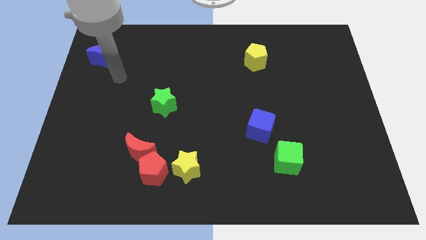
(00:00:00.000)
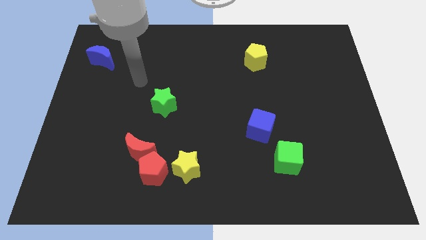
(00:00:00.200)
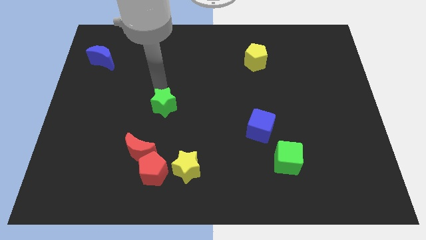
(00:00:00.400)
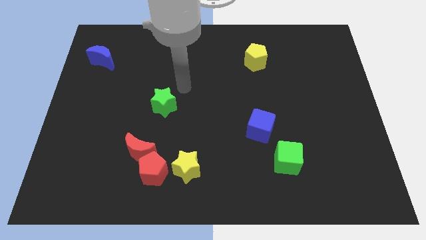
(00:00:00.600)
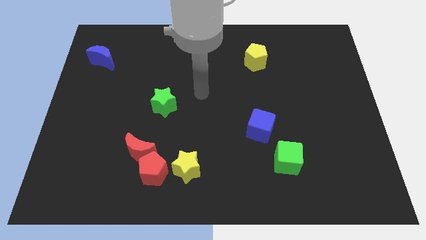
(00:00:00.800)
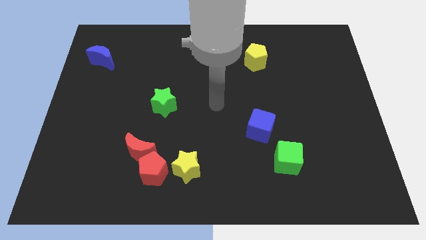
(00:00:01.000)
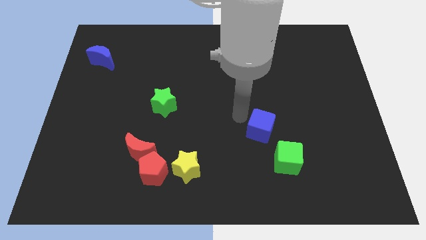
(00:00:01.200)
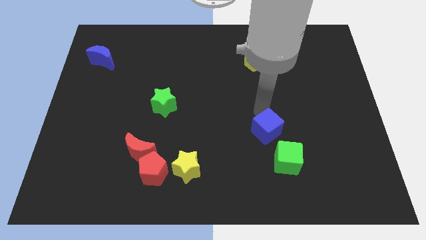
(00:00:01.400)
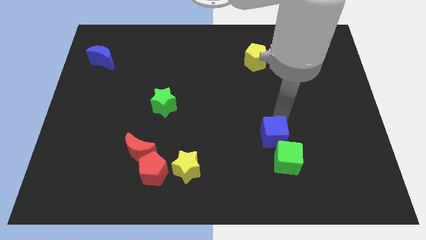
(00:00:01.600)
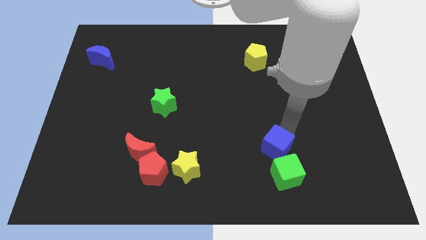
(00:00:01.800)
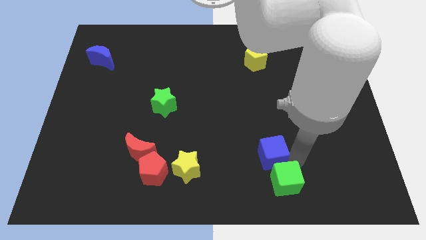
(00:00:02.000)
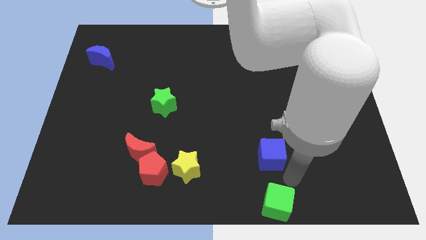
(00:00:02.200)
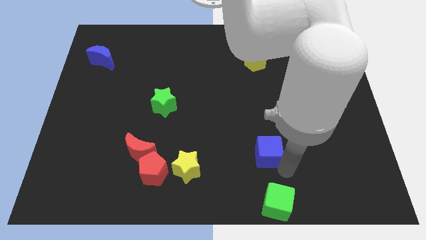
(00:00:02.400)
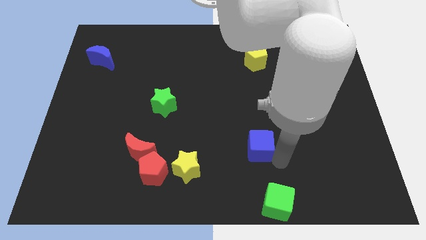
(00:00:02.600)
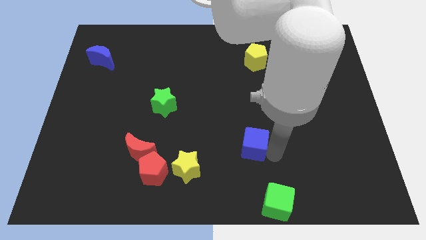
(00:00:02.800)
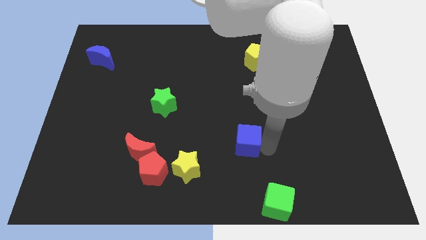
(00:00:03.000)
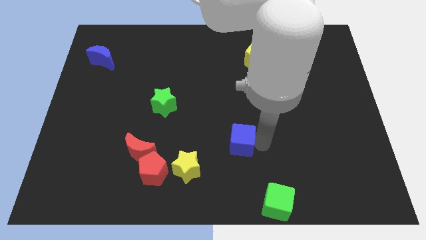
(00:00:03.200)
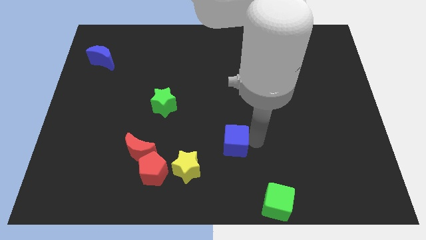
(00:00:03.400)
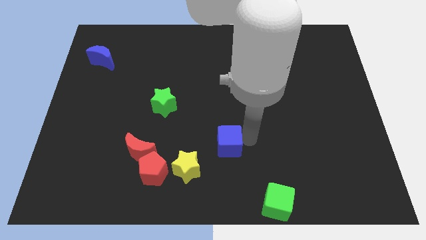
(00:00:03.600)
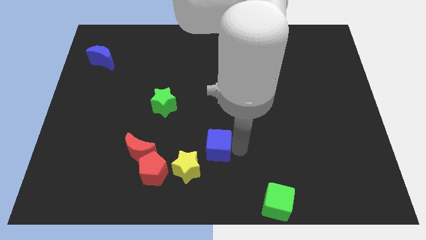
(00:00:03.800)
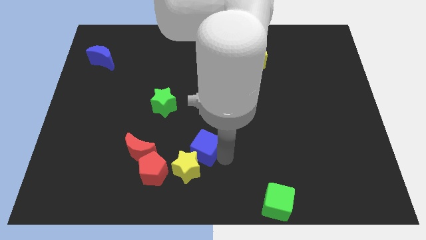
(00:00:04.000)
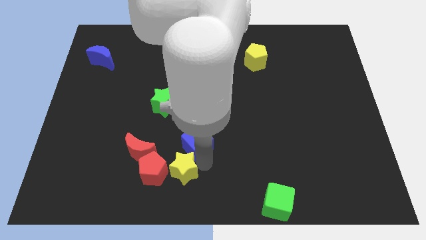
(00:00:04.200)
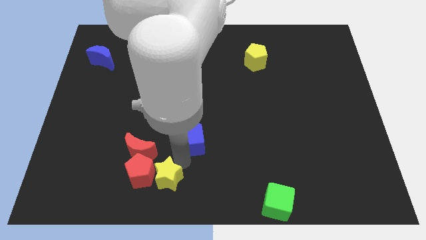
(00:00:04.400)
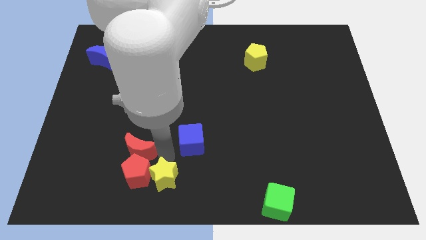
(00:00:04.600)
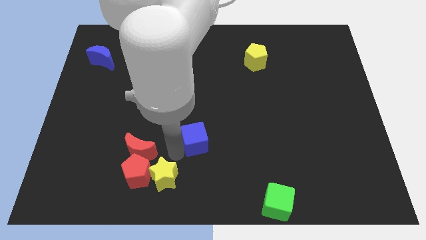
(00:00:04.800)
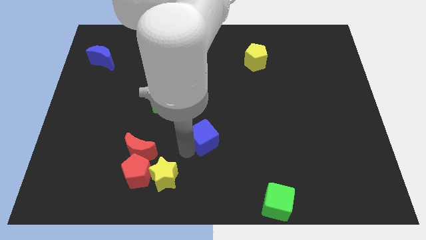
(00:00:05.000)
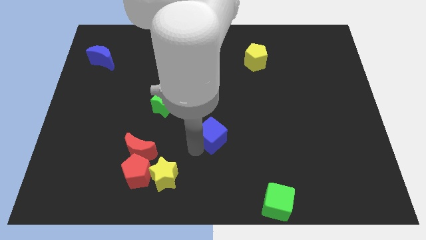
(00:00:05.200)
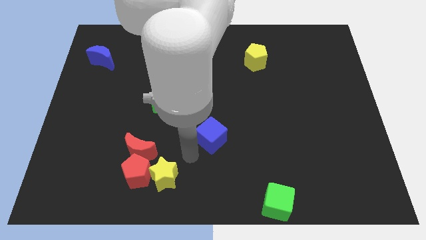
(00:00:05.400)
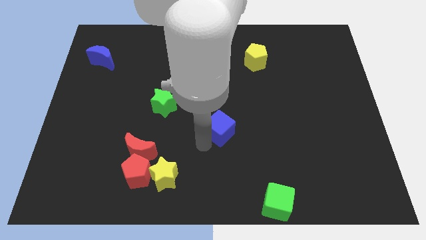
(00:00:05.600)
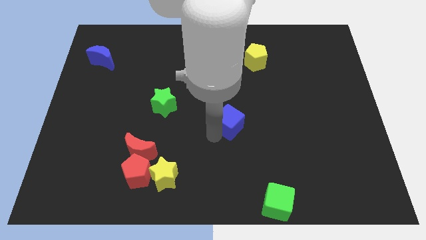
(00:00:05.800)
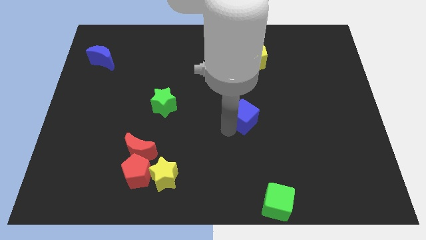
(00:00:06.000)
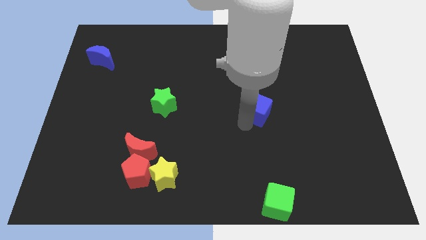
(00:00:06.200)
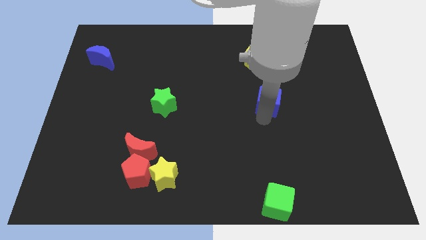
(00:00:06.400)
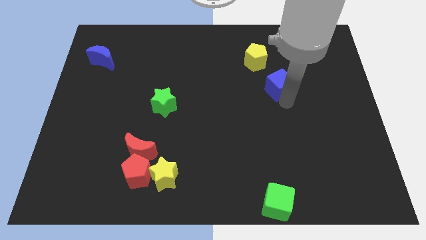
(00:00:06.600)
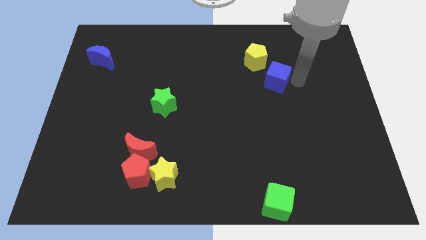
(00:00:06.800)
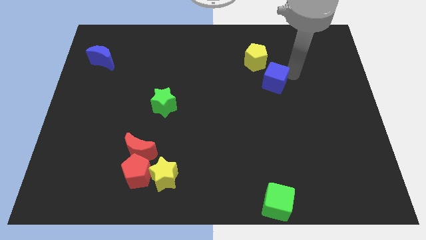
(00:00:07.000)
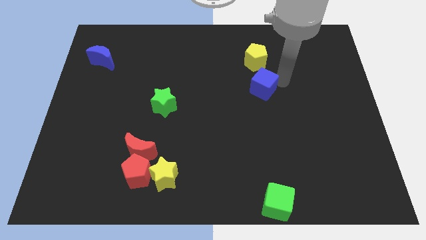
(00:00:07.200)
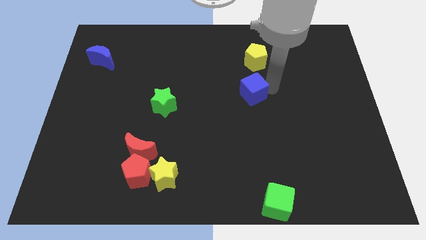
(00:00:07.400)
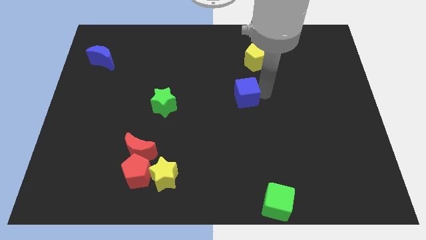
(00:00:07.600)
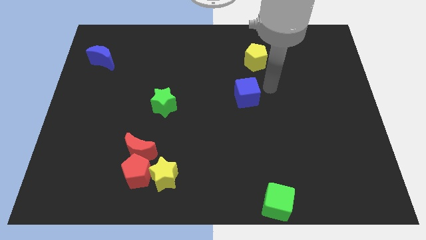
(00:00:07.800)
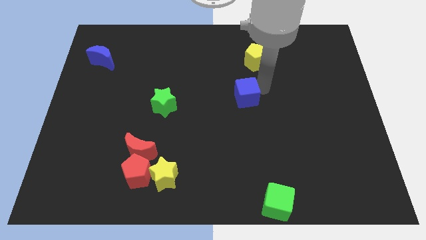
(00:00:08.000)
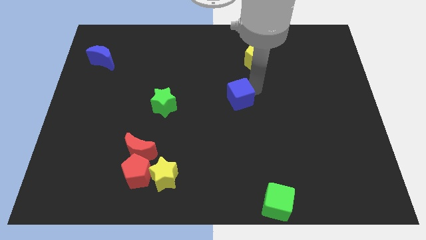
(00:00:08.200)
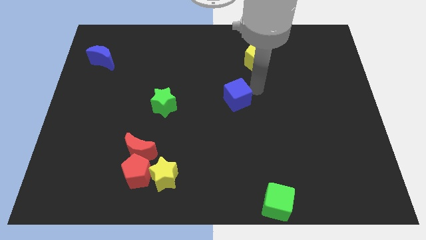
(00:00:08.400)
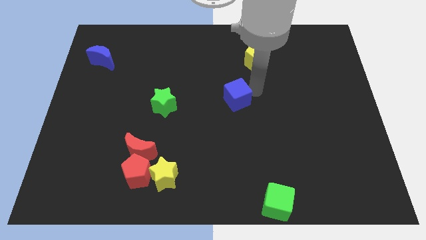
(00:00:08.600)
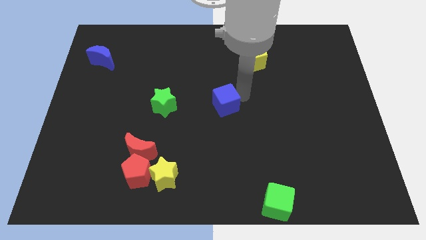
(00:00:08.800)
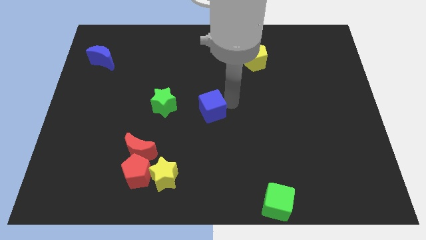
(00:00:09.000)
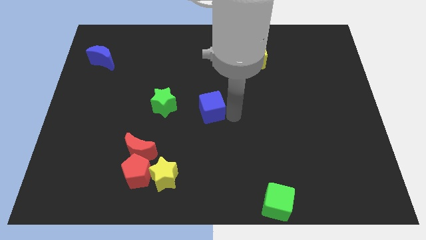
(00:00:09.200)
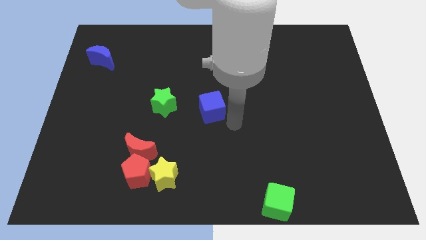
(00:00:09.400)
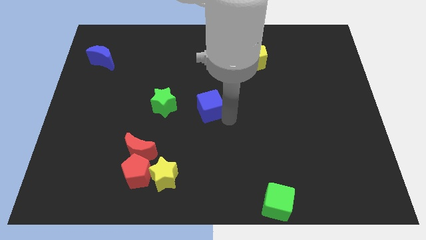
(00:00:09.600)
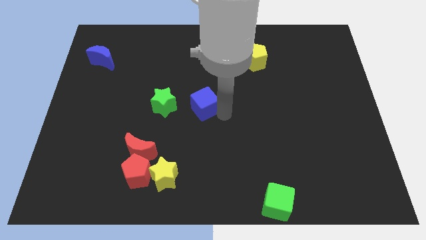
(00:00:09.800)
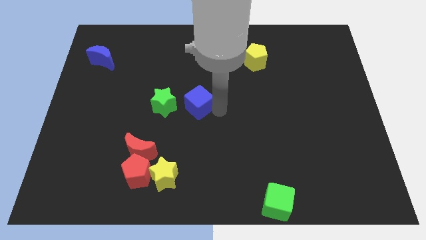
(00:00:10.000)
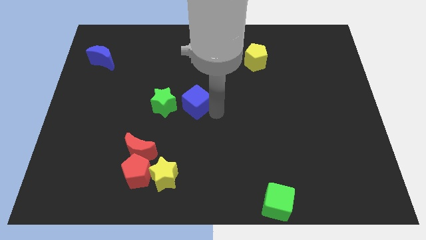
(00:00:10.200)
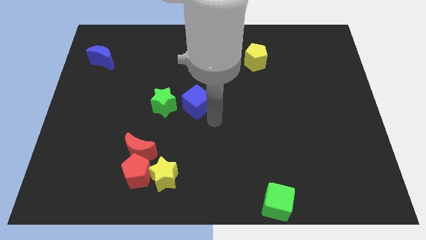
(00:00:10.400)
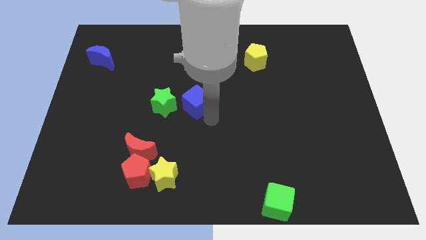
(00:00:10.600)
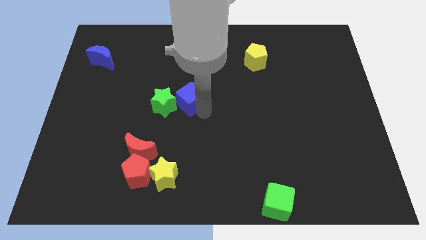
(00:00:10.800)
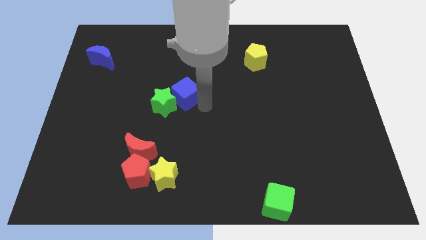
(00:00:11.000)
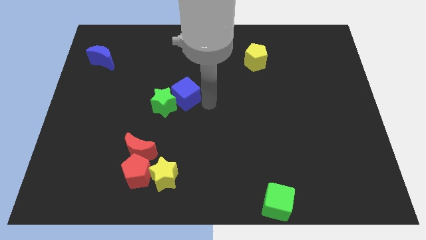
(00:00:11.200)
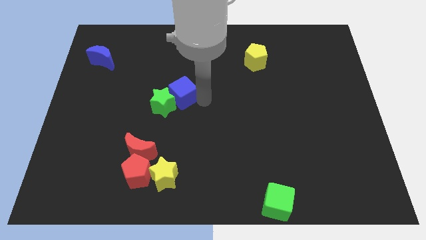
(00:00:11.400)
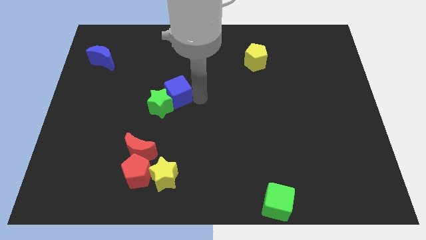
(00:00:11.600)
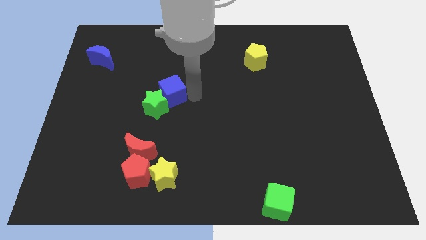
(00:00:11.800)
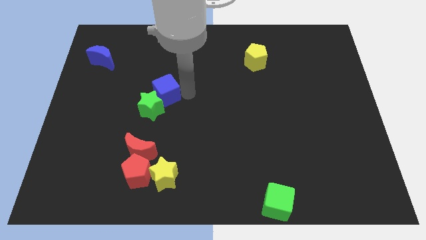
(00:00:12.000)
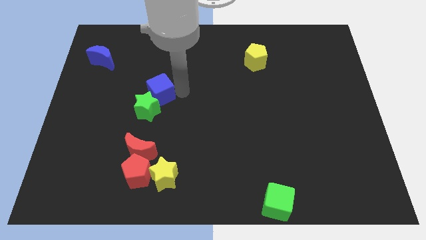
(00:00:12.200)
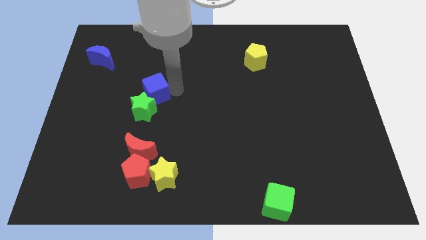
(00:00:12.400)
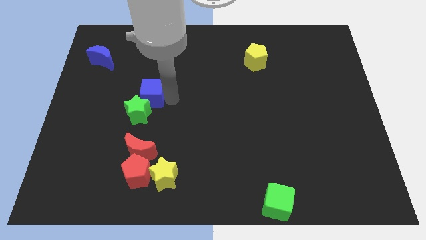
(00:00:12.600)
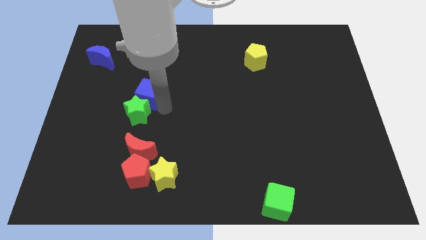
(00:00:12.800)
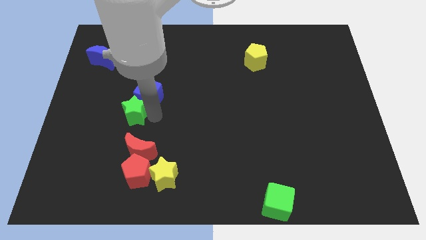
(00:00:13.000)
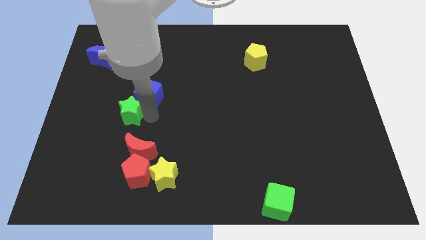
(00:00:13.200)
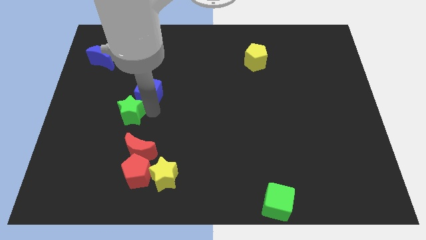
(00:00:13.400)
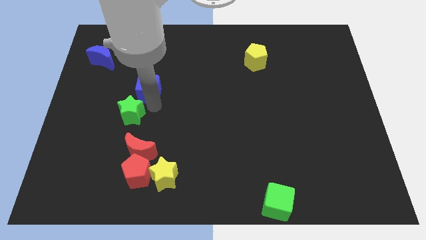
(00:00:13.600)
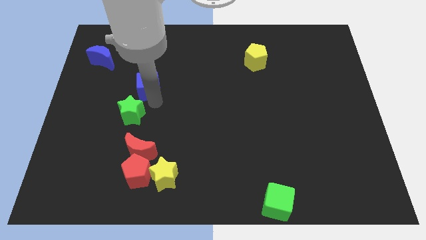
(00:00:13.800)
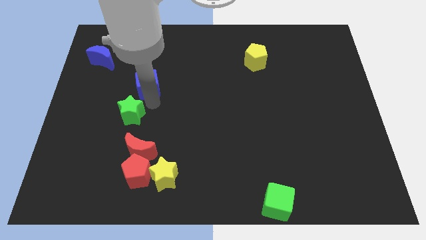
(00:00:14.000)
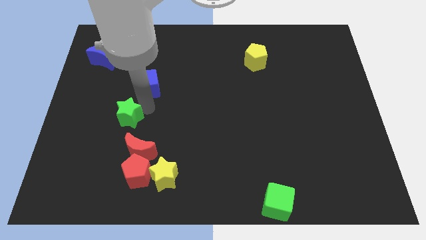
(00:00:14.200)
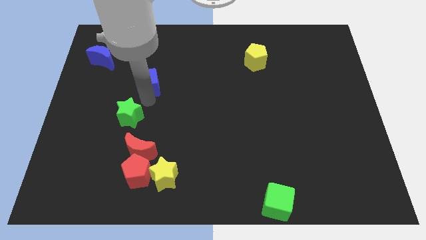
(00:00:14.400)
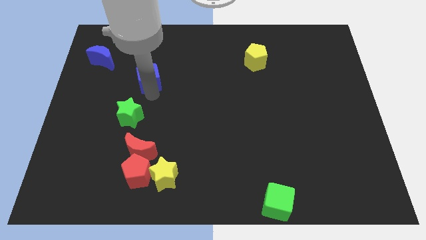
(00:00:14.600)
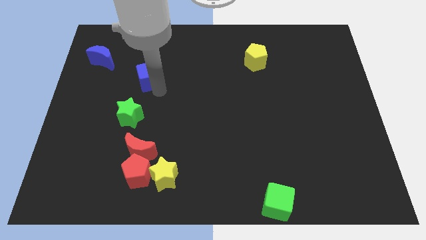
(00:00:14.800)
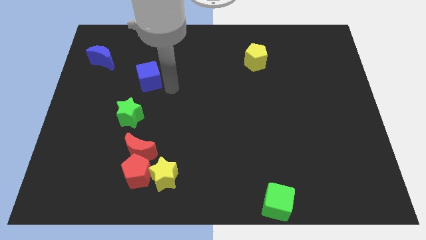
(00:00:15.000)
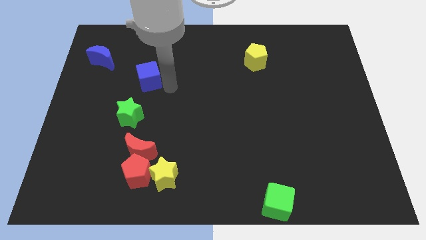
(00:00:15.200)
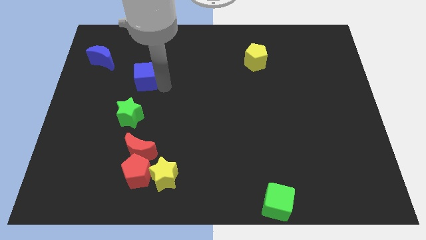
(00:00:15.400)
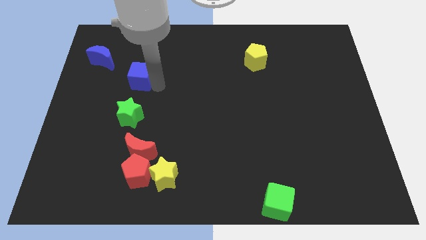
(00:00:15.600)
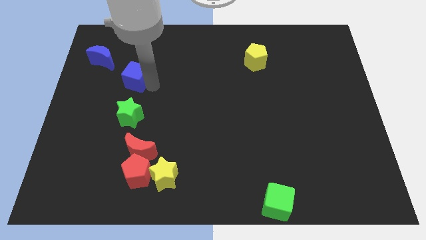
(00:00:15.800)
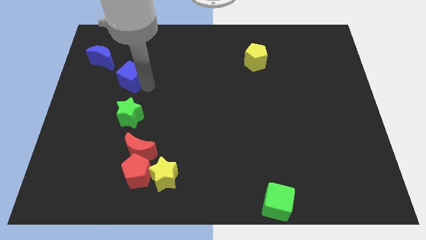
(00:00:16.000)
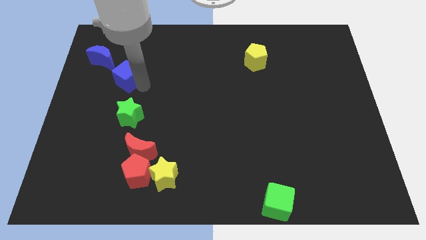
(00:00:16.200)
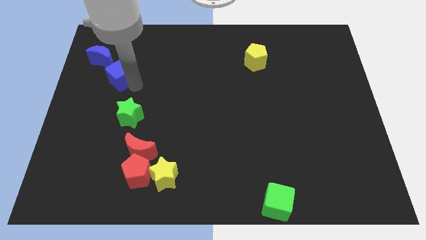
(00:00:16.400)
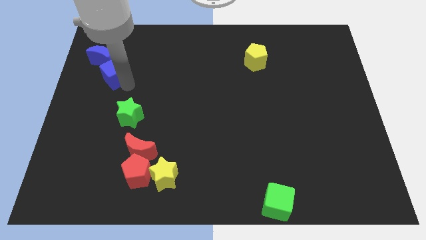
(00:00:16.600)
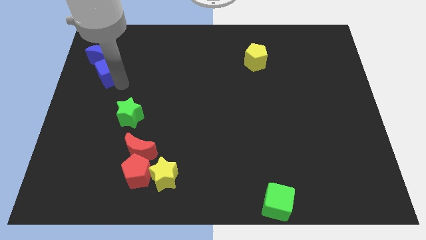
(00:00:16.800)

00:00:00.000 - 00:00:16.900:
slide the blue cube towards the blue moon
